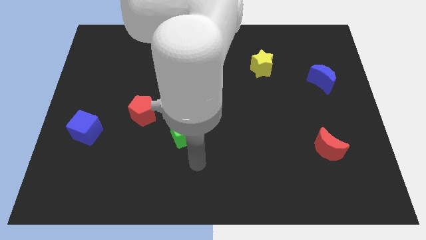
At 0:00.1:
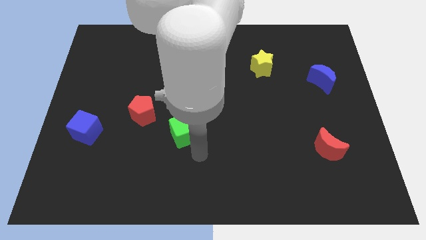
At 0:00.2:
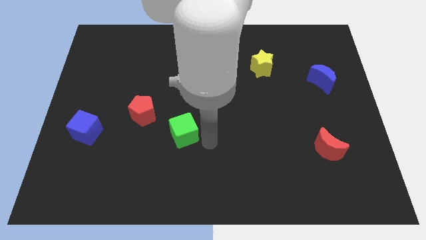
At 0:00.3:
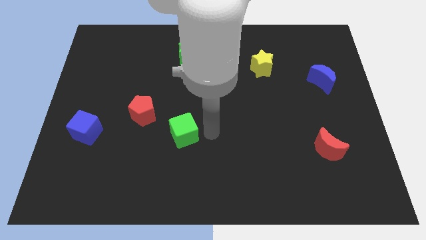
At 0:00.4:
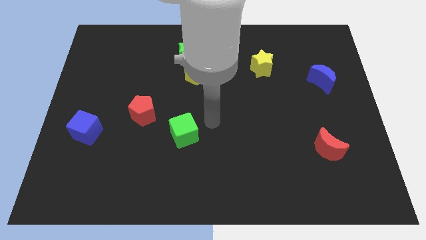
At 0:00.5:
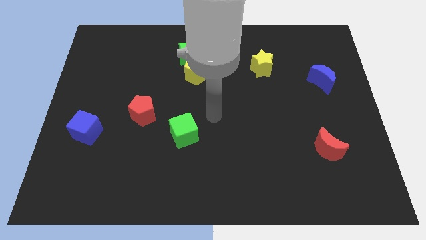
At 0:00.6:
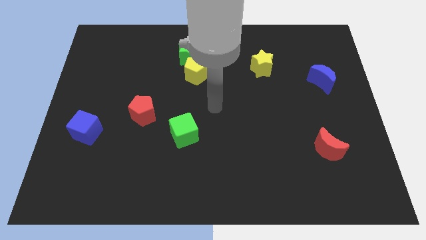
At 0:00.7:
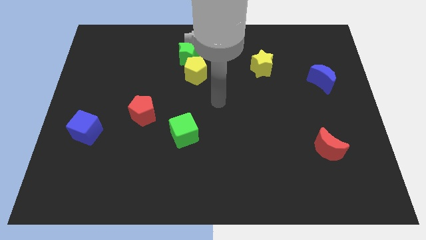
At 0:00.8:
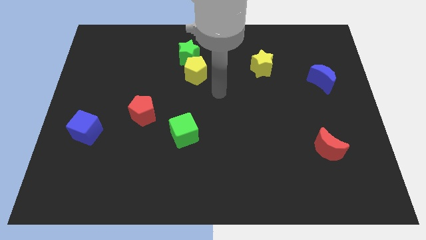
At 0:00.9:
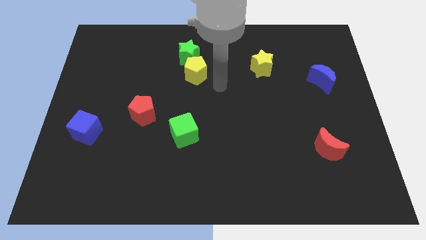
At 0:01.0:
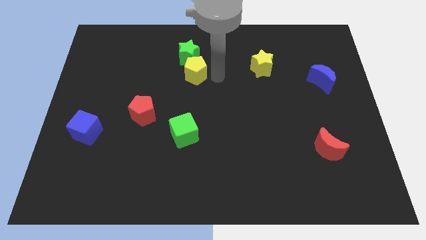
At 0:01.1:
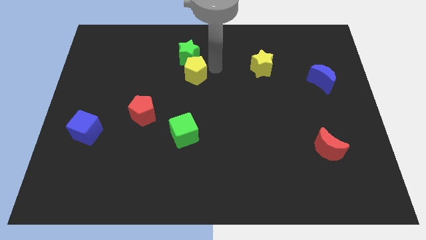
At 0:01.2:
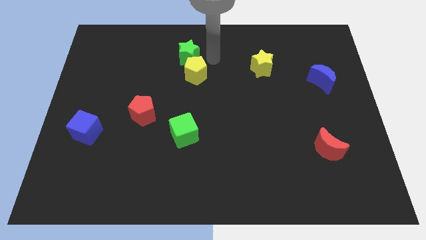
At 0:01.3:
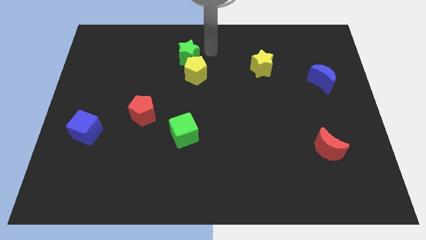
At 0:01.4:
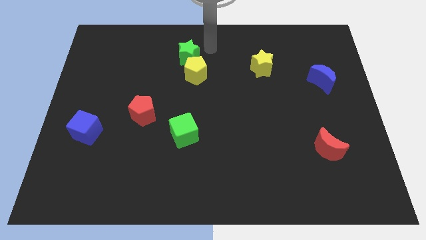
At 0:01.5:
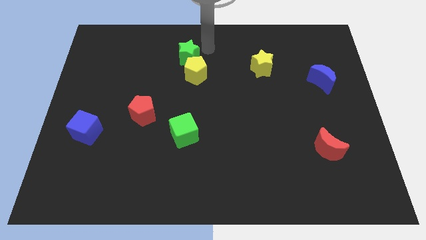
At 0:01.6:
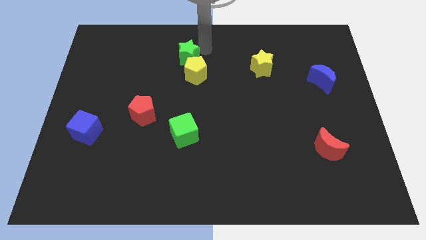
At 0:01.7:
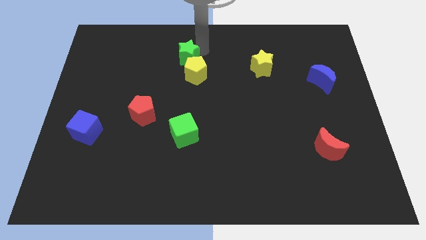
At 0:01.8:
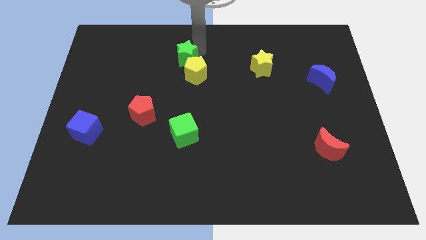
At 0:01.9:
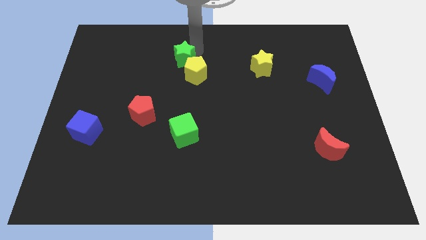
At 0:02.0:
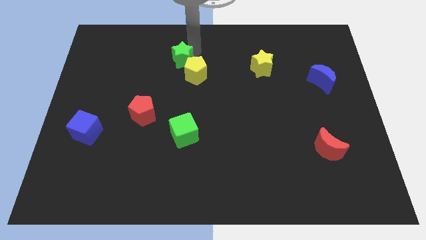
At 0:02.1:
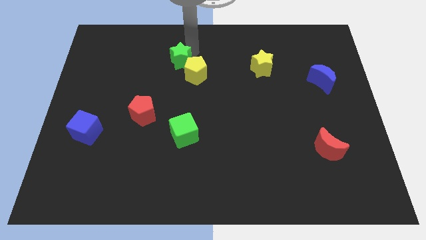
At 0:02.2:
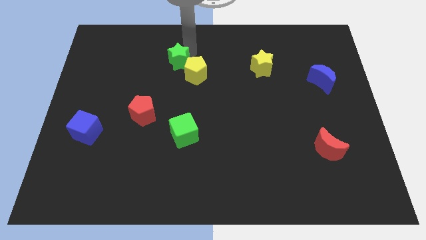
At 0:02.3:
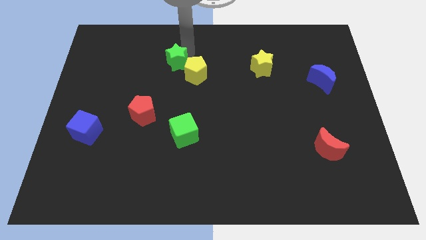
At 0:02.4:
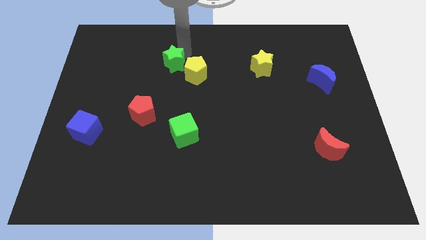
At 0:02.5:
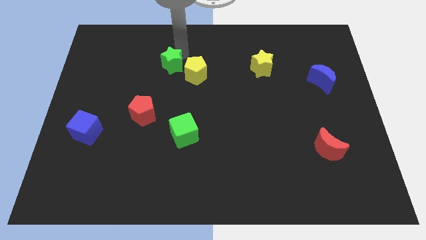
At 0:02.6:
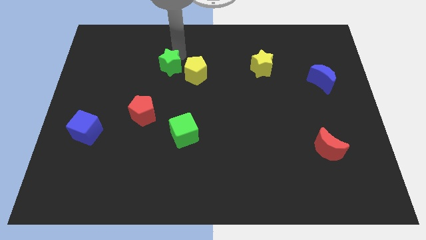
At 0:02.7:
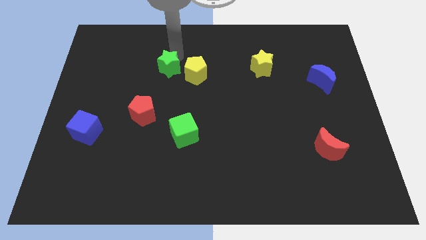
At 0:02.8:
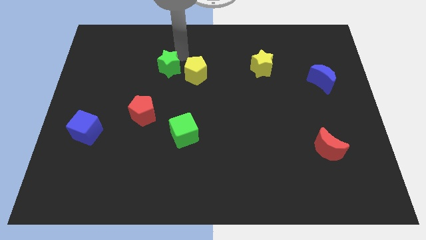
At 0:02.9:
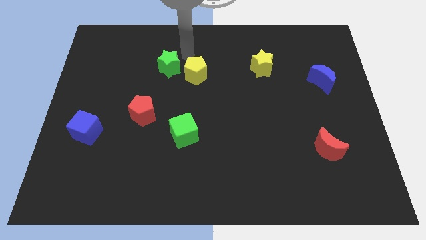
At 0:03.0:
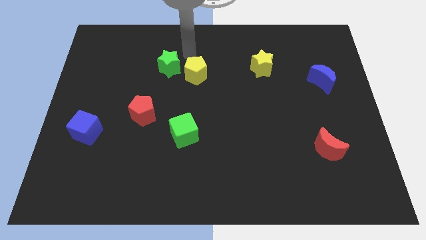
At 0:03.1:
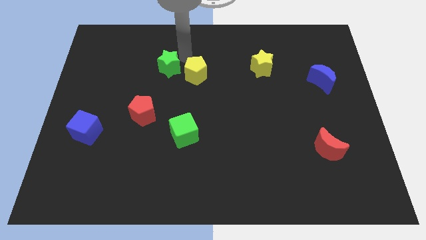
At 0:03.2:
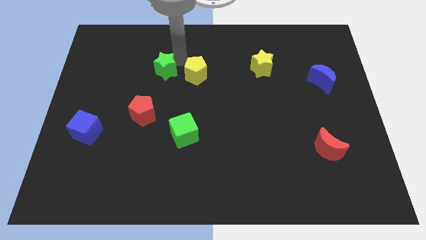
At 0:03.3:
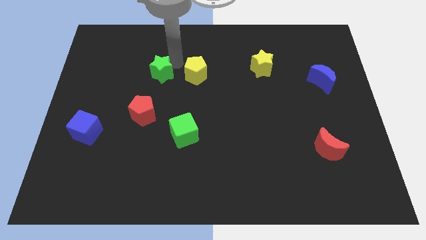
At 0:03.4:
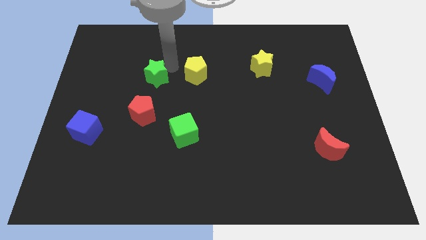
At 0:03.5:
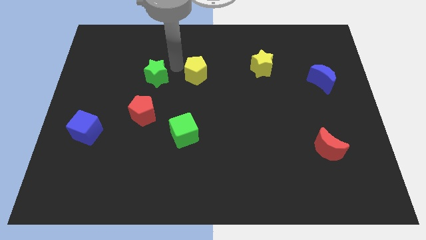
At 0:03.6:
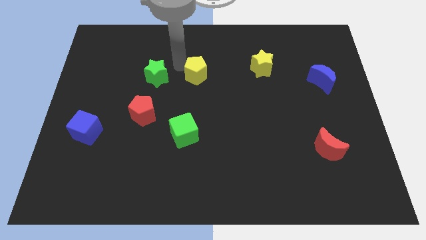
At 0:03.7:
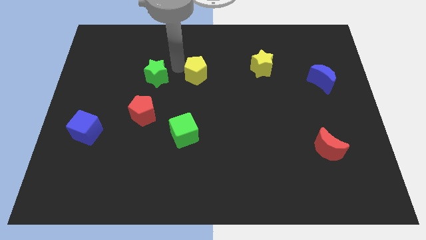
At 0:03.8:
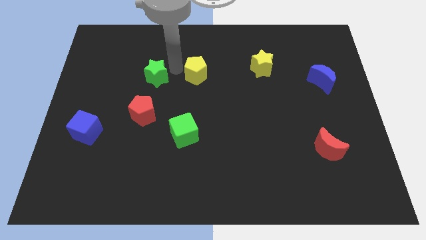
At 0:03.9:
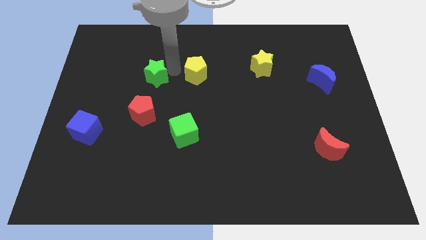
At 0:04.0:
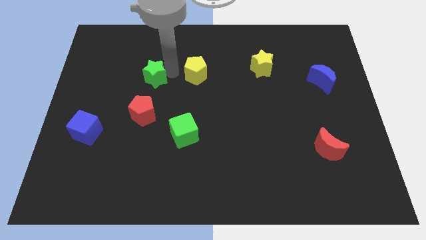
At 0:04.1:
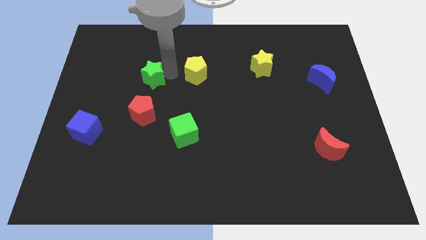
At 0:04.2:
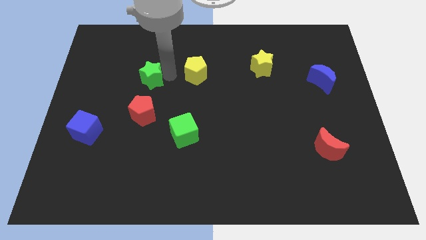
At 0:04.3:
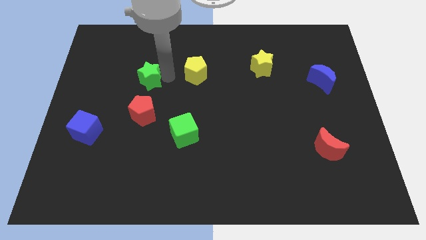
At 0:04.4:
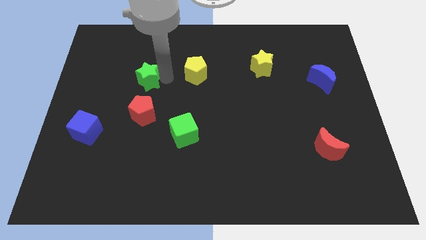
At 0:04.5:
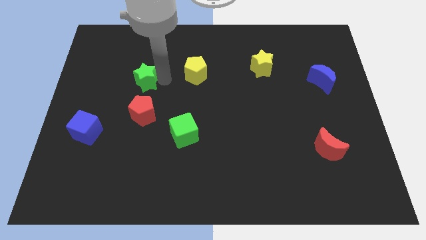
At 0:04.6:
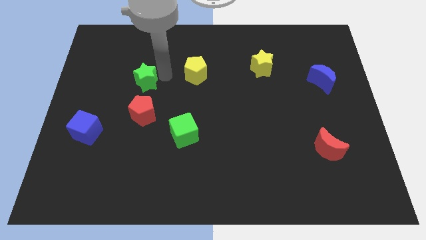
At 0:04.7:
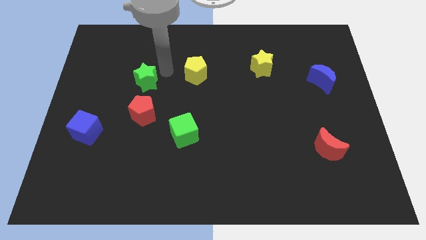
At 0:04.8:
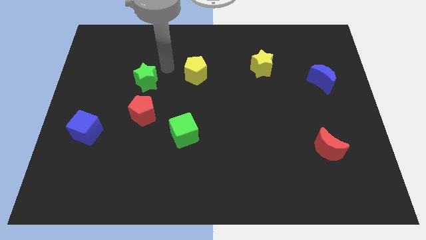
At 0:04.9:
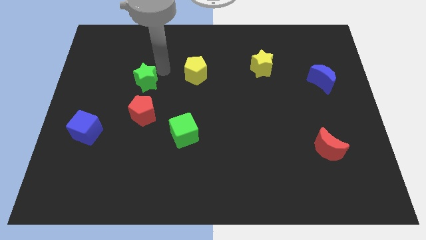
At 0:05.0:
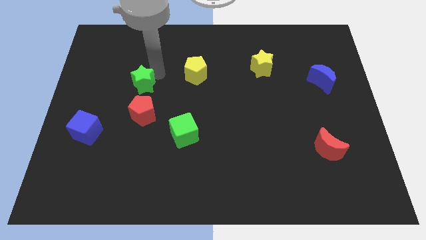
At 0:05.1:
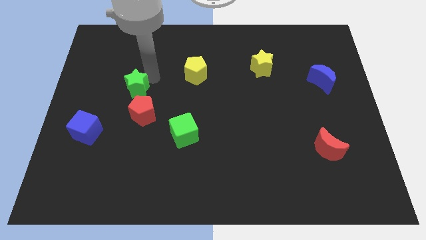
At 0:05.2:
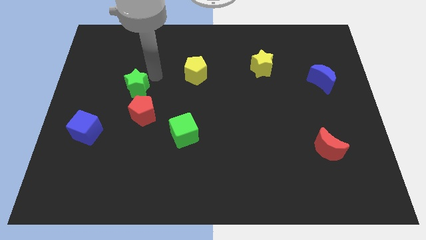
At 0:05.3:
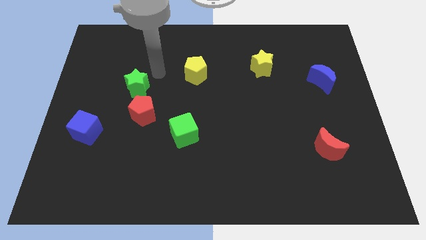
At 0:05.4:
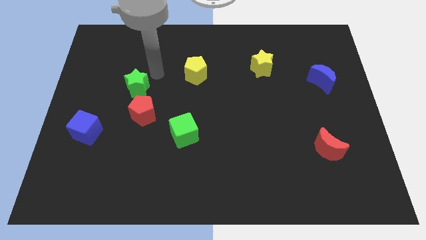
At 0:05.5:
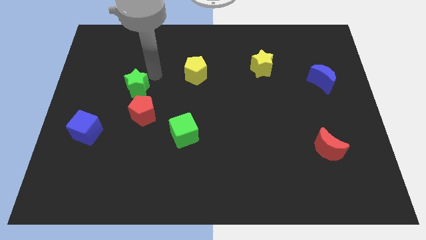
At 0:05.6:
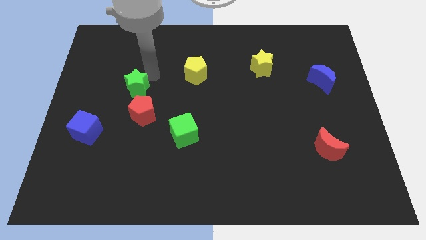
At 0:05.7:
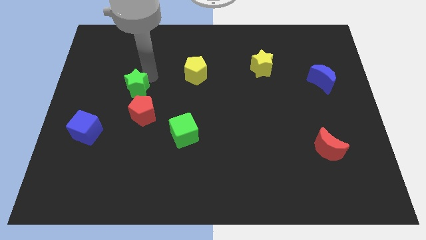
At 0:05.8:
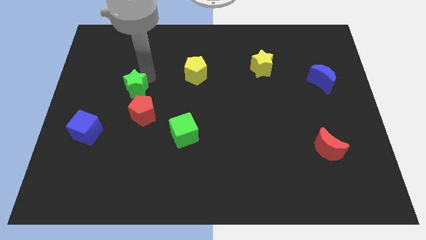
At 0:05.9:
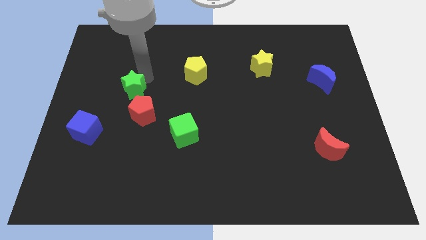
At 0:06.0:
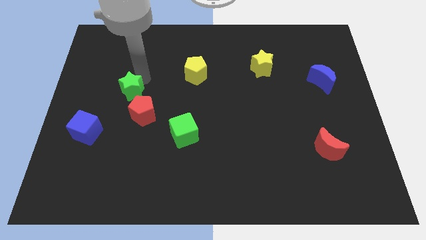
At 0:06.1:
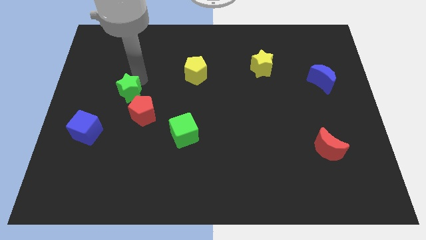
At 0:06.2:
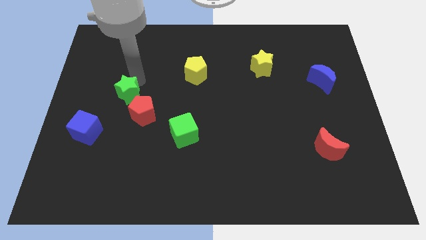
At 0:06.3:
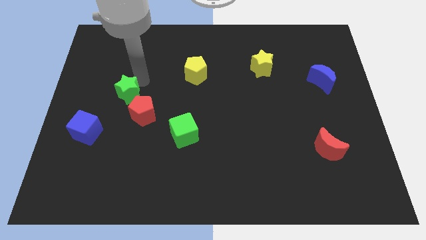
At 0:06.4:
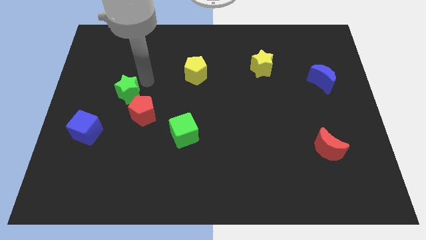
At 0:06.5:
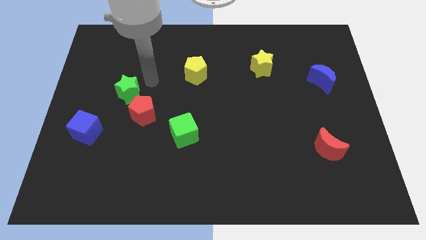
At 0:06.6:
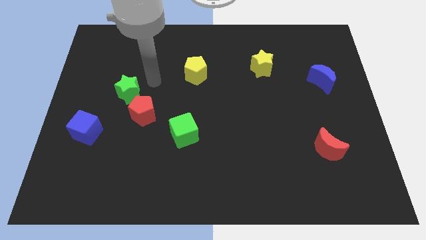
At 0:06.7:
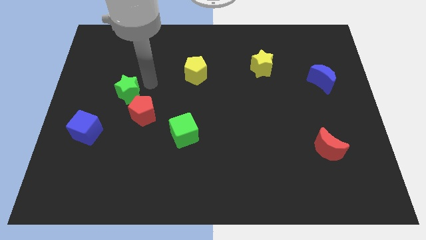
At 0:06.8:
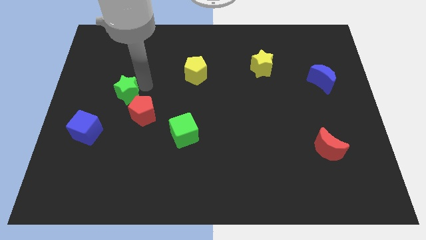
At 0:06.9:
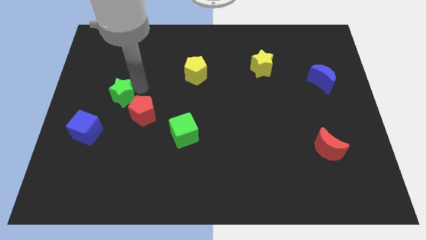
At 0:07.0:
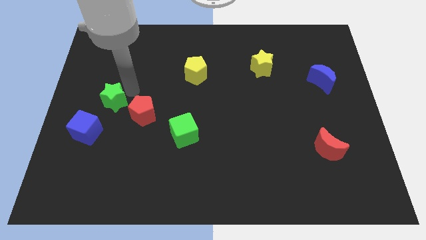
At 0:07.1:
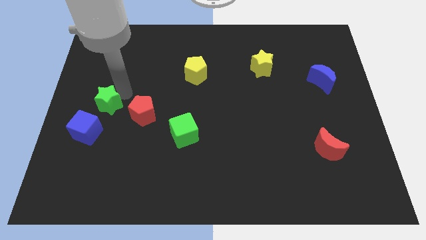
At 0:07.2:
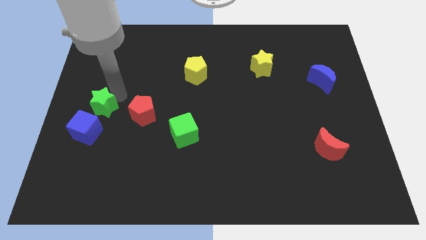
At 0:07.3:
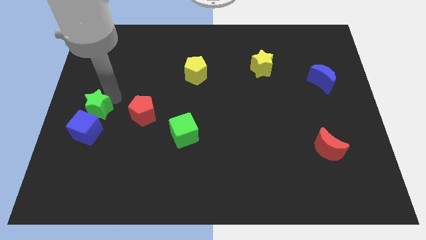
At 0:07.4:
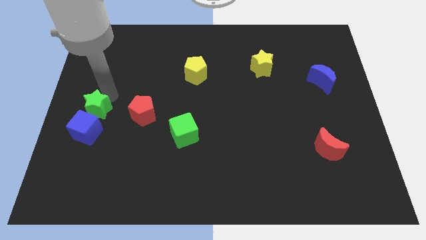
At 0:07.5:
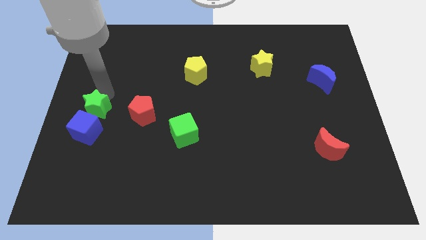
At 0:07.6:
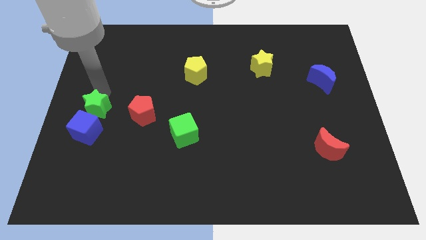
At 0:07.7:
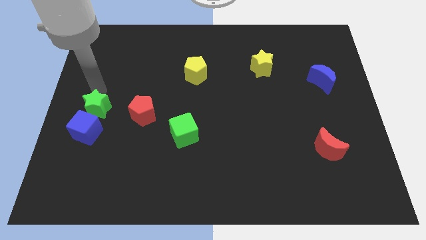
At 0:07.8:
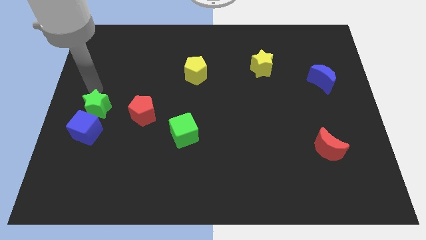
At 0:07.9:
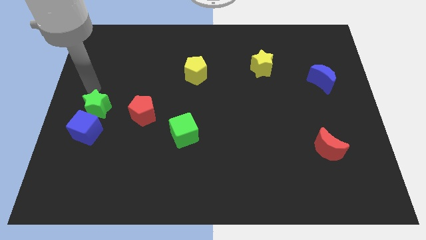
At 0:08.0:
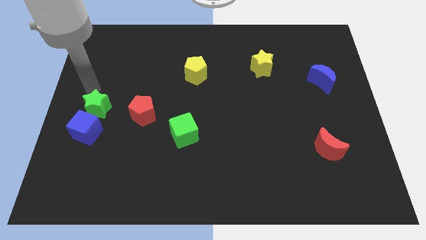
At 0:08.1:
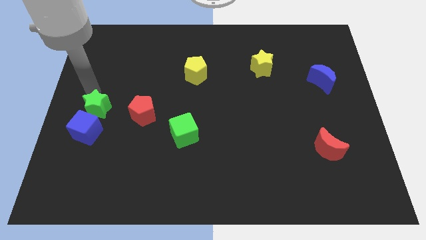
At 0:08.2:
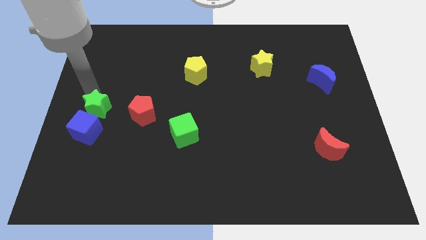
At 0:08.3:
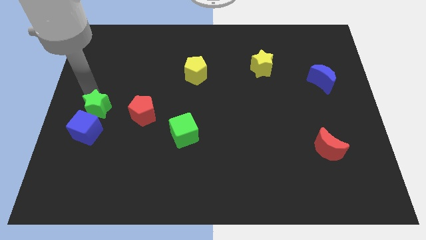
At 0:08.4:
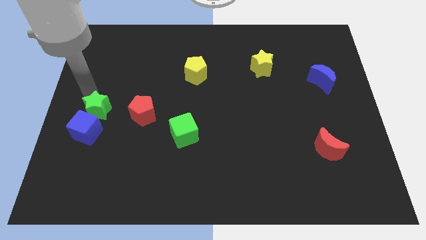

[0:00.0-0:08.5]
slide the green star to the blue cube
